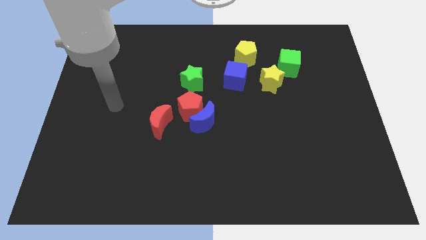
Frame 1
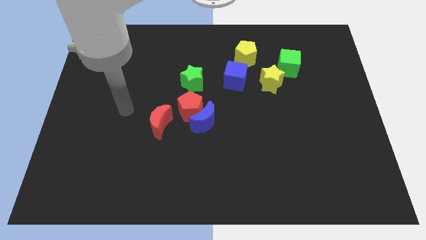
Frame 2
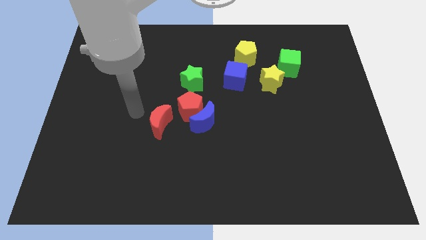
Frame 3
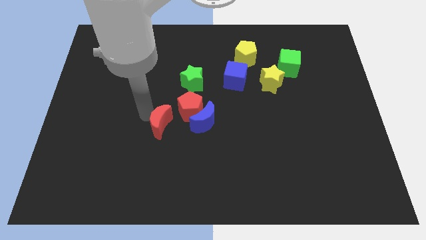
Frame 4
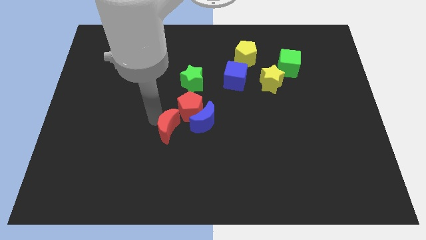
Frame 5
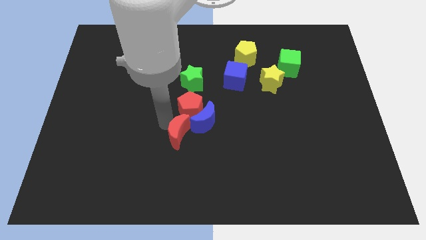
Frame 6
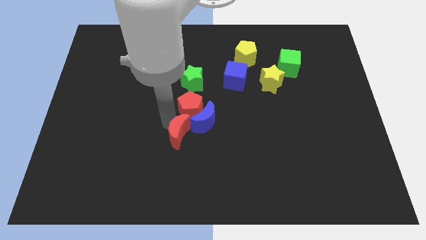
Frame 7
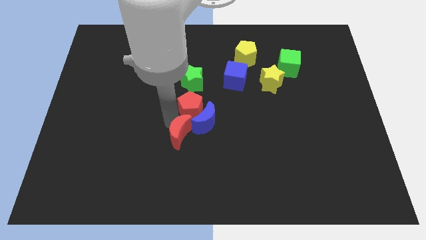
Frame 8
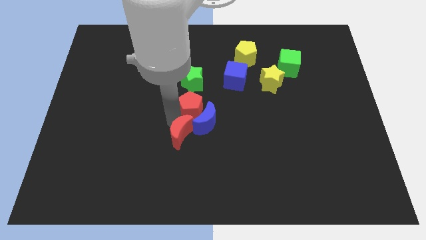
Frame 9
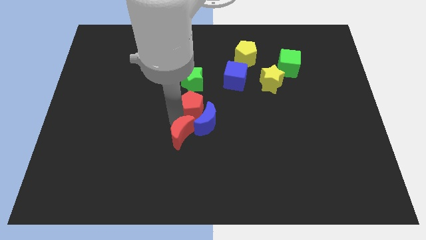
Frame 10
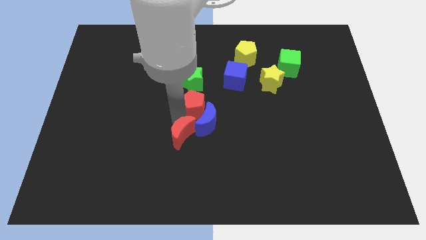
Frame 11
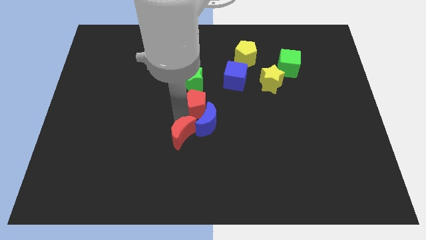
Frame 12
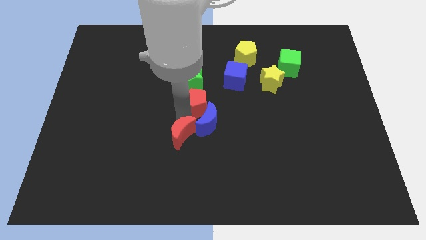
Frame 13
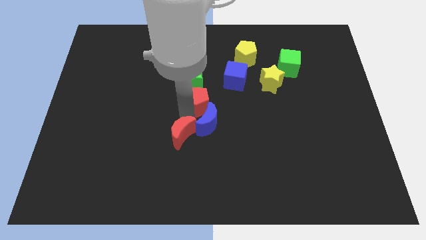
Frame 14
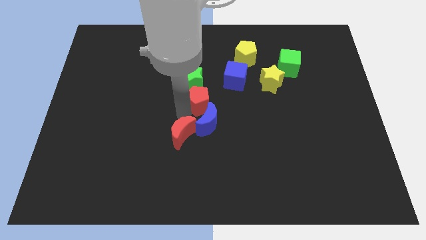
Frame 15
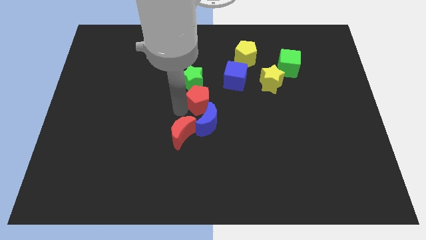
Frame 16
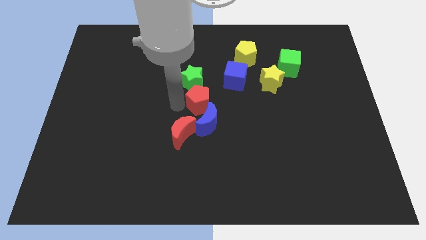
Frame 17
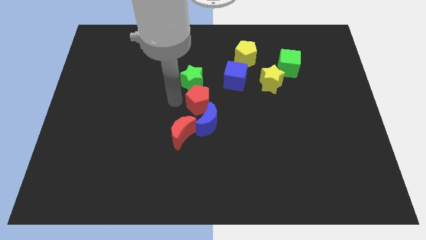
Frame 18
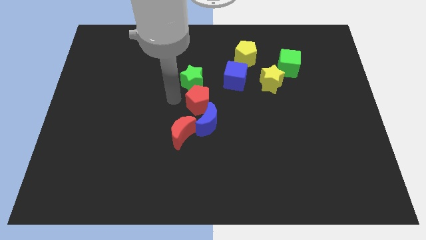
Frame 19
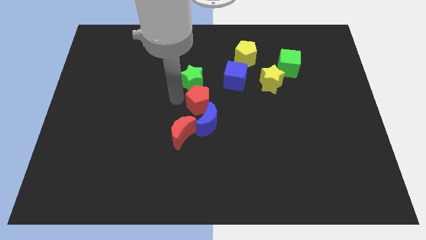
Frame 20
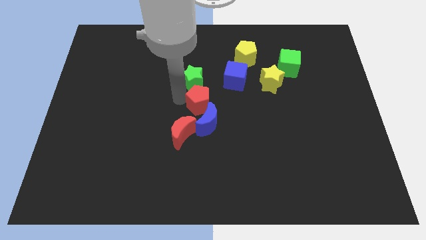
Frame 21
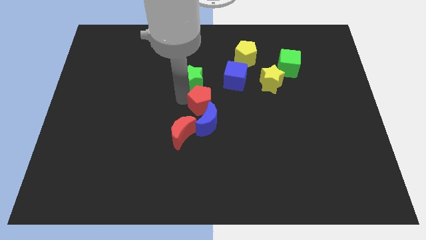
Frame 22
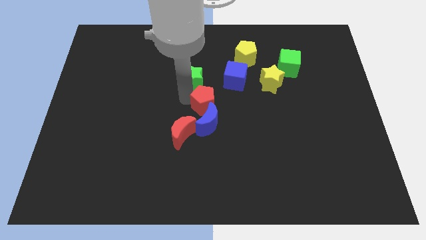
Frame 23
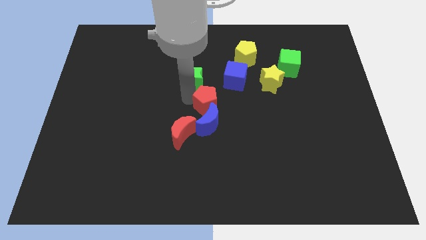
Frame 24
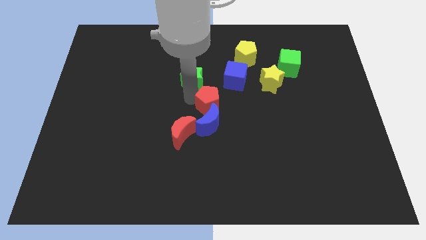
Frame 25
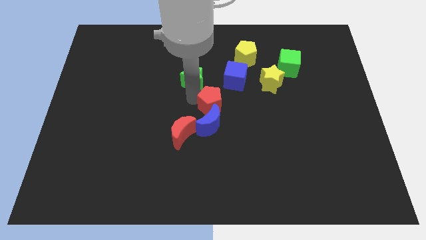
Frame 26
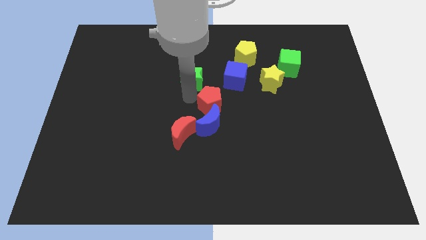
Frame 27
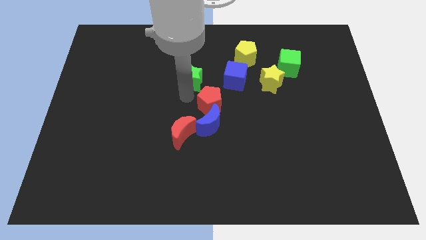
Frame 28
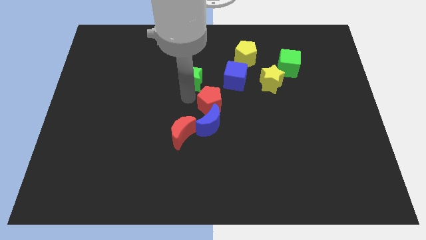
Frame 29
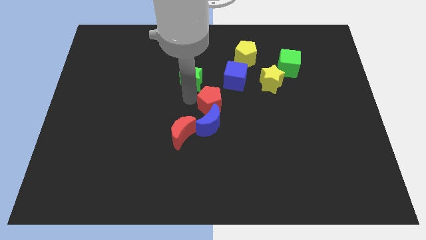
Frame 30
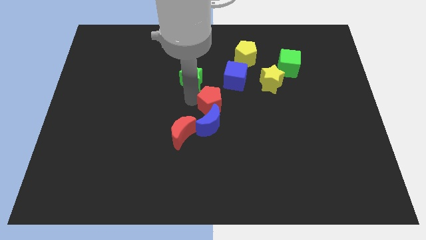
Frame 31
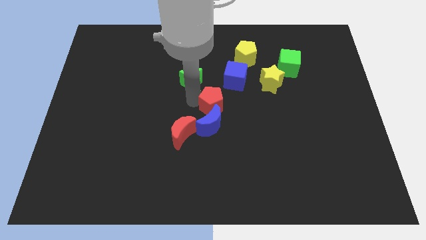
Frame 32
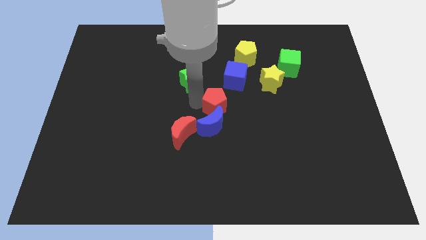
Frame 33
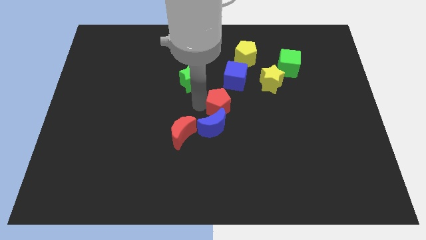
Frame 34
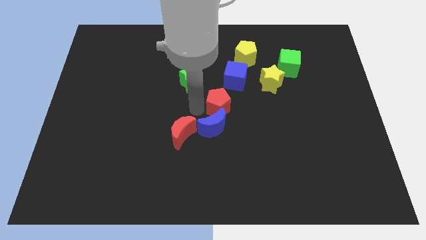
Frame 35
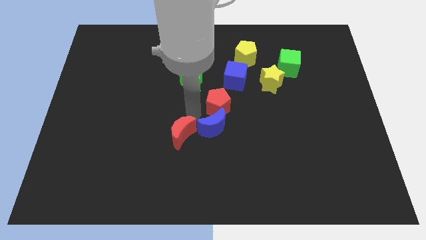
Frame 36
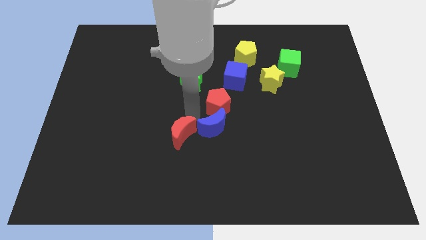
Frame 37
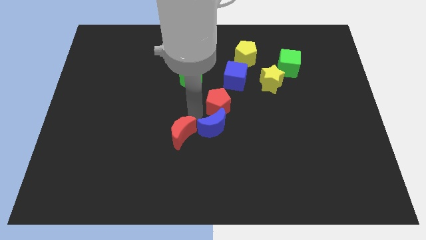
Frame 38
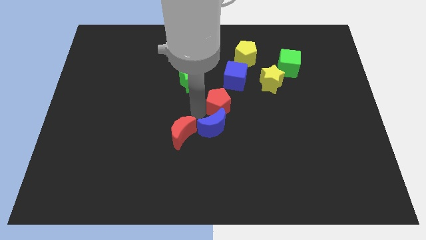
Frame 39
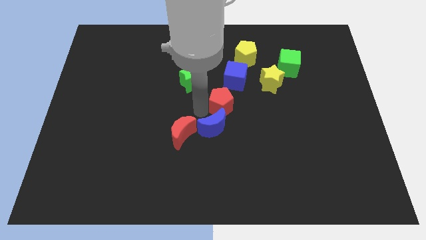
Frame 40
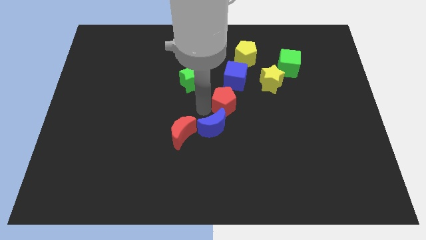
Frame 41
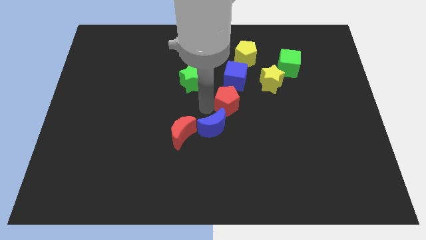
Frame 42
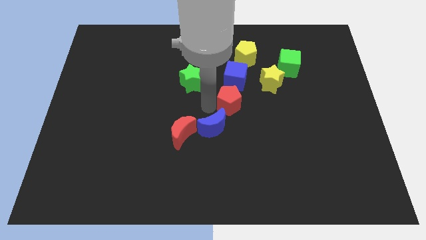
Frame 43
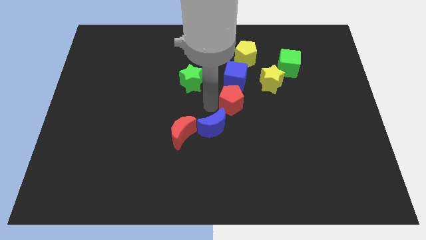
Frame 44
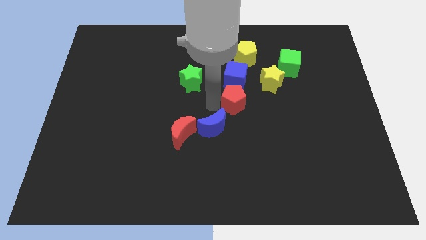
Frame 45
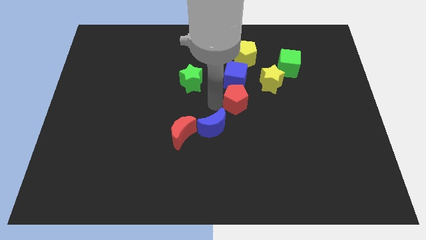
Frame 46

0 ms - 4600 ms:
move the red pentagon away from the blue moon, red moon, and green star

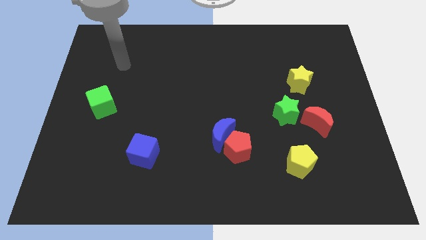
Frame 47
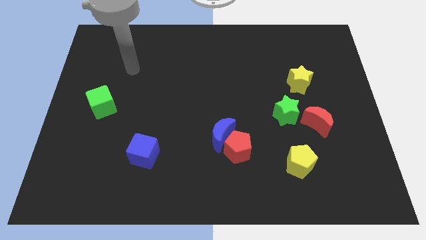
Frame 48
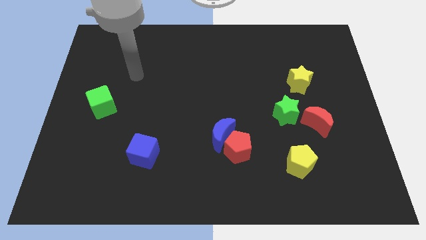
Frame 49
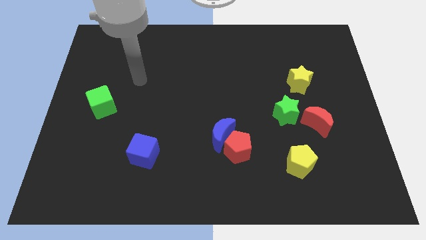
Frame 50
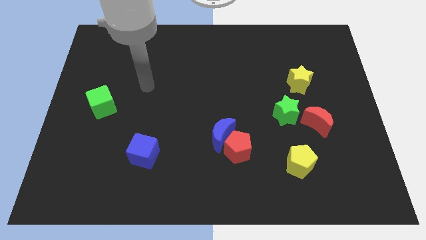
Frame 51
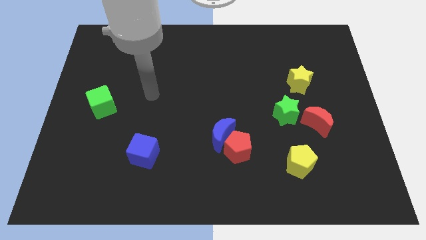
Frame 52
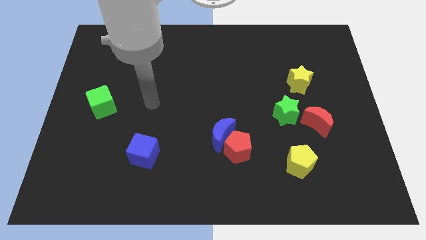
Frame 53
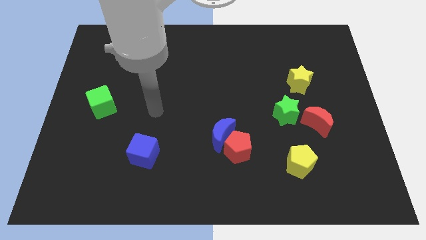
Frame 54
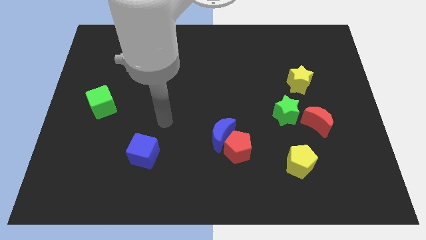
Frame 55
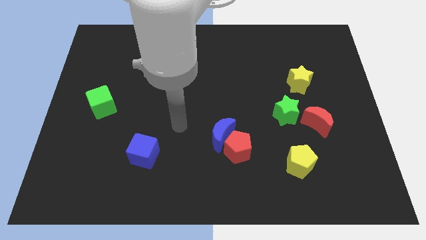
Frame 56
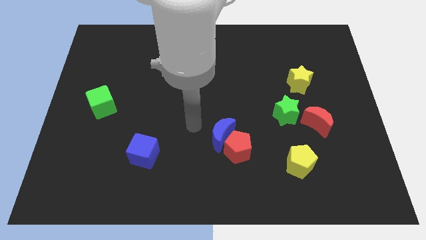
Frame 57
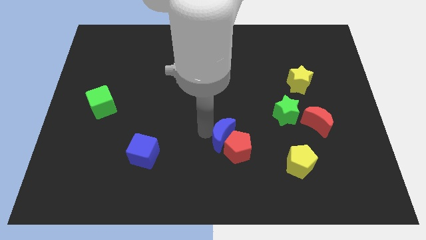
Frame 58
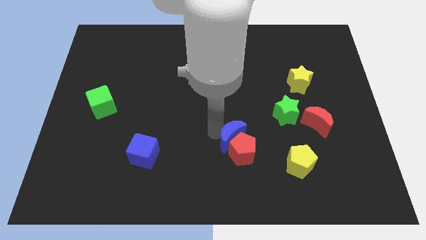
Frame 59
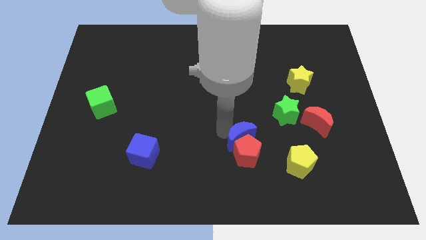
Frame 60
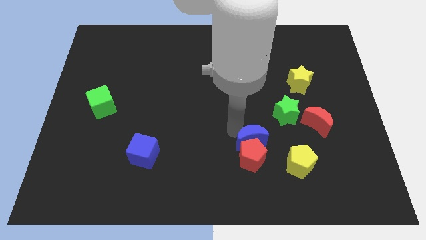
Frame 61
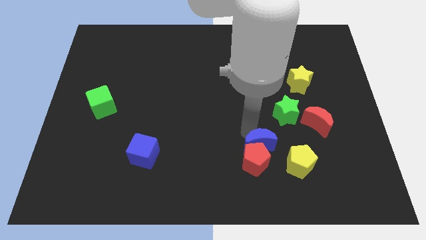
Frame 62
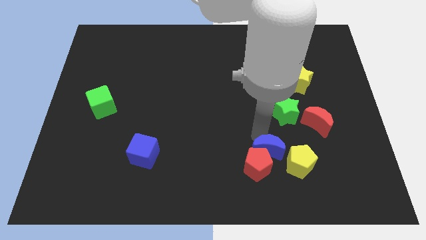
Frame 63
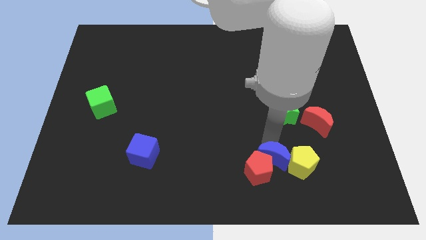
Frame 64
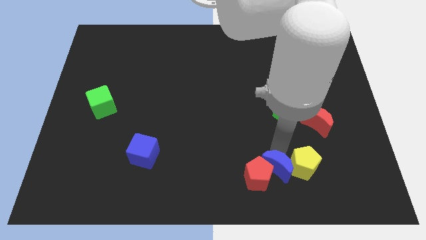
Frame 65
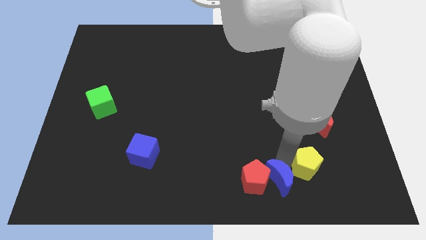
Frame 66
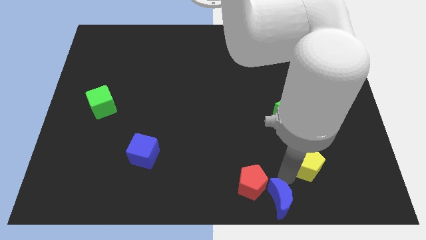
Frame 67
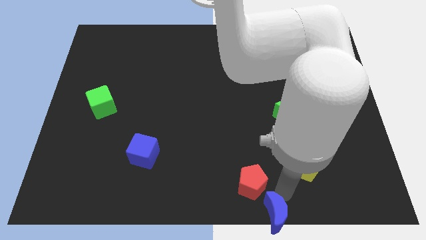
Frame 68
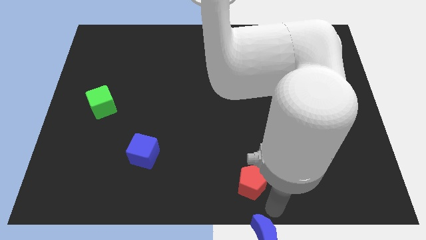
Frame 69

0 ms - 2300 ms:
move the red pentagon away from the blue moon

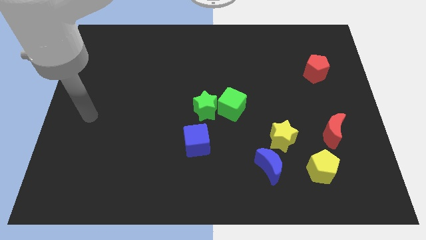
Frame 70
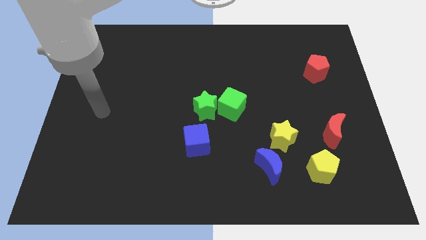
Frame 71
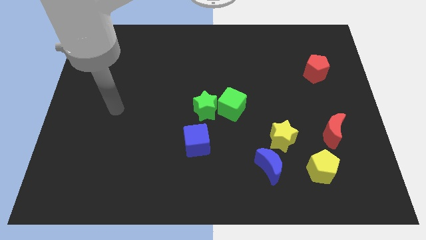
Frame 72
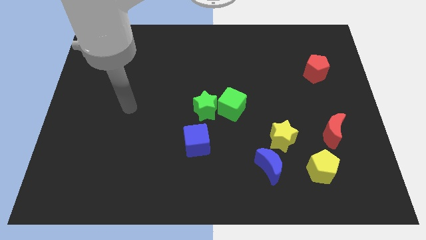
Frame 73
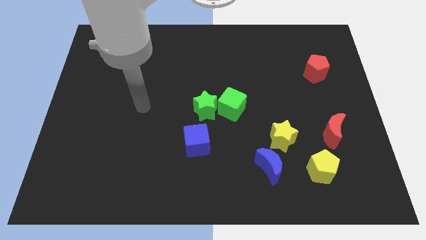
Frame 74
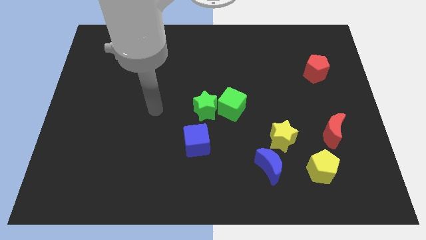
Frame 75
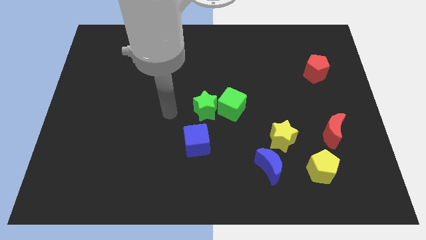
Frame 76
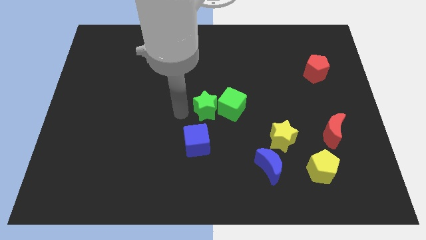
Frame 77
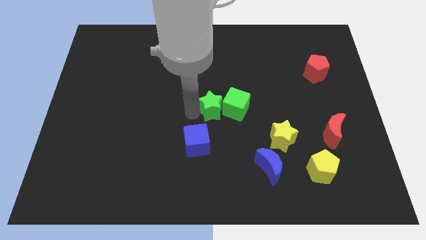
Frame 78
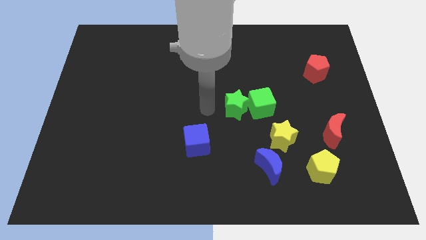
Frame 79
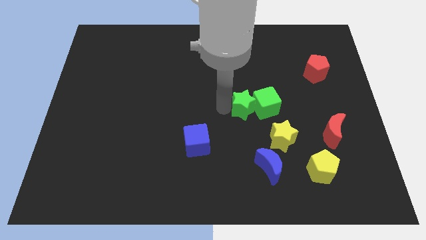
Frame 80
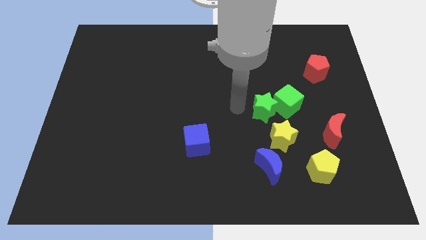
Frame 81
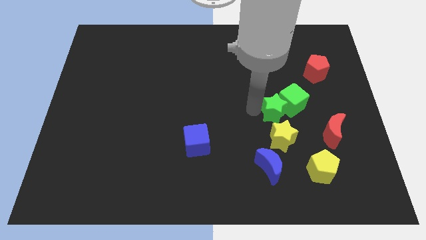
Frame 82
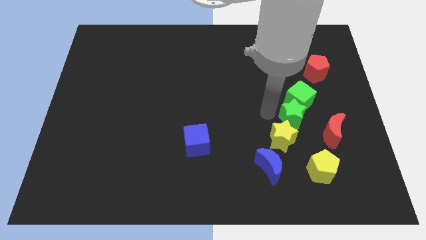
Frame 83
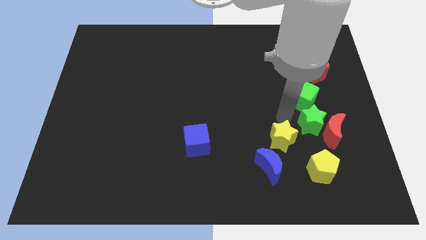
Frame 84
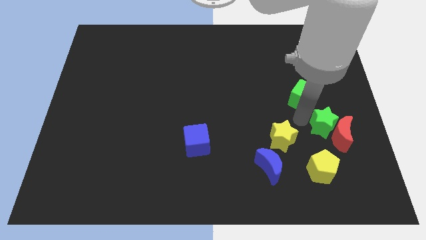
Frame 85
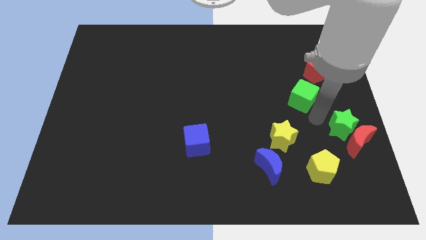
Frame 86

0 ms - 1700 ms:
pull the green cube apart from the green star

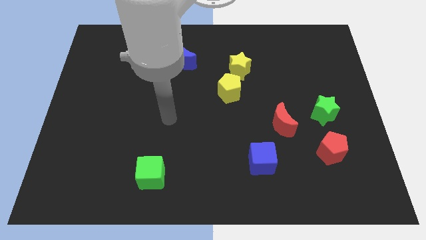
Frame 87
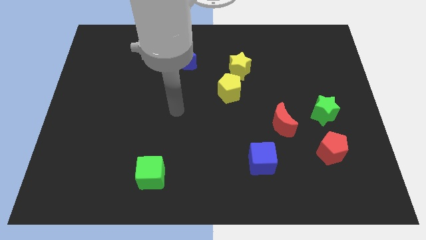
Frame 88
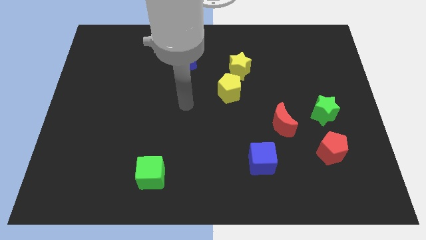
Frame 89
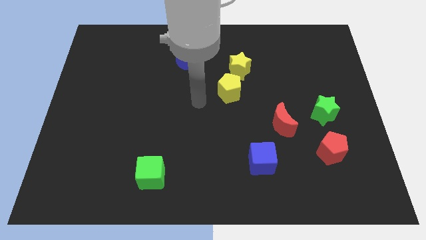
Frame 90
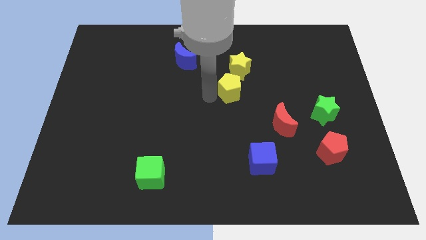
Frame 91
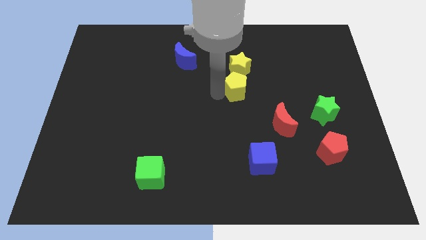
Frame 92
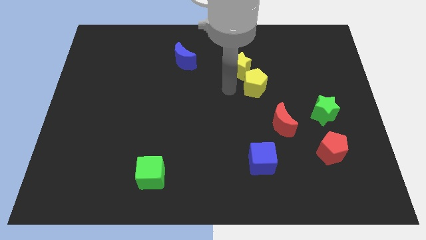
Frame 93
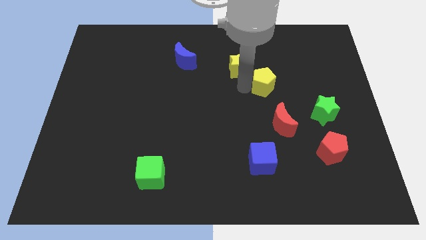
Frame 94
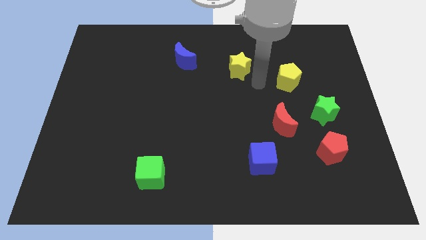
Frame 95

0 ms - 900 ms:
pull the yellow star apart from the yellow pentagon
